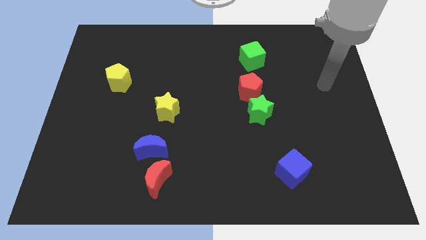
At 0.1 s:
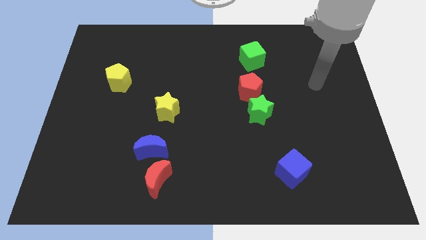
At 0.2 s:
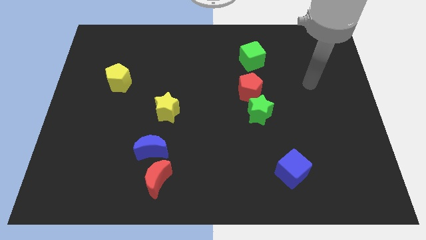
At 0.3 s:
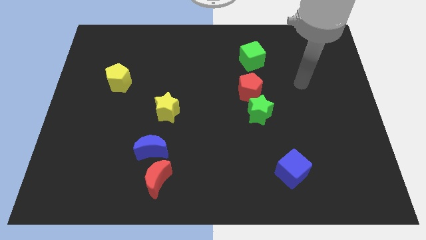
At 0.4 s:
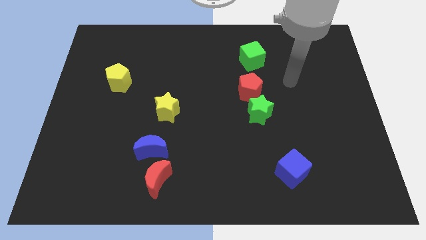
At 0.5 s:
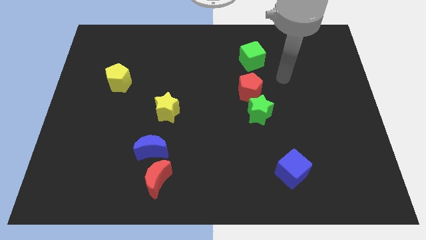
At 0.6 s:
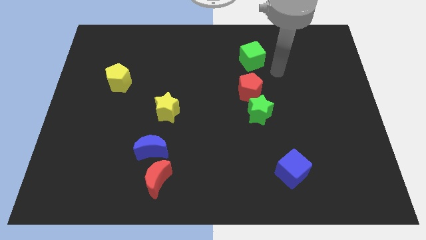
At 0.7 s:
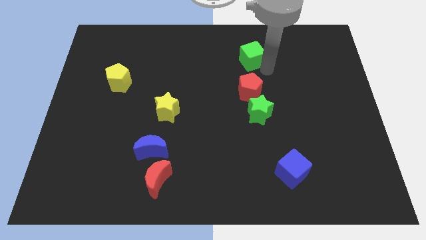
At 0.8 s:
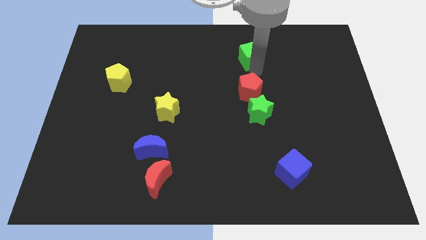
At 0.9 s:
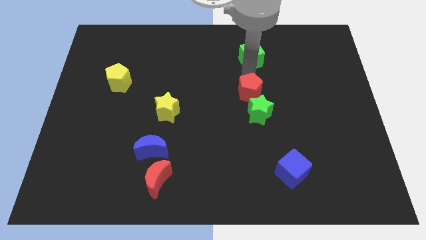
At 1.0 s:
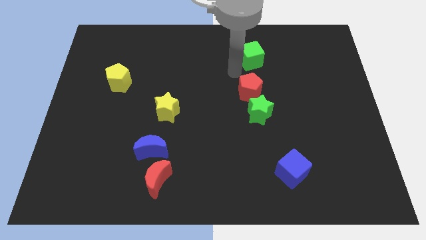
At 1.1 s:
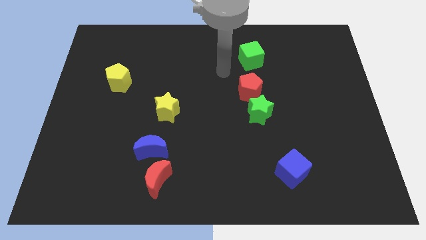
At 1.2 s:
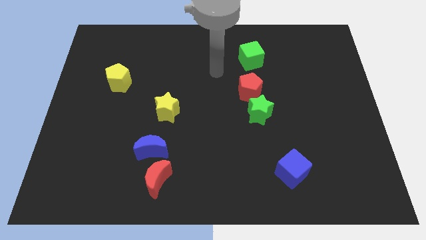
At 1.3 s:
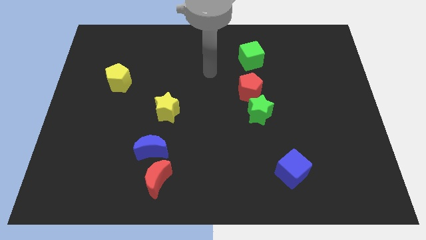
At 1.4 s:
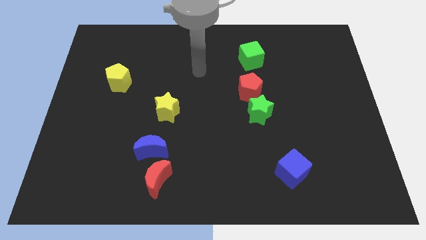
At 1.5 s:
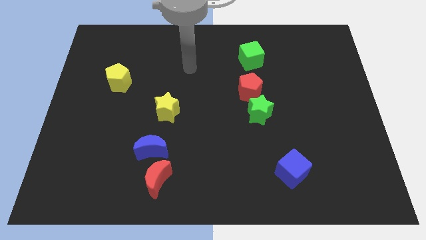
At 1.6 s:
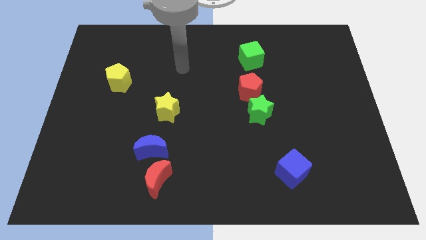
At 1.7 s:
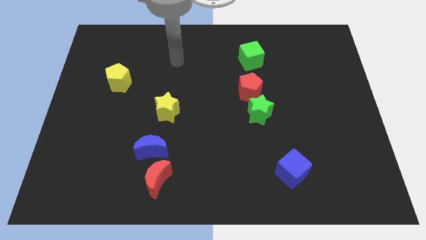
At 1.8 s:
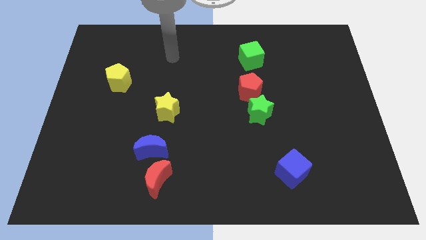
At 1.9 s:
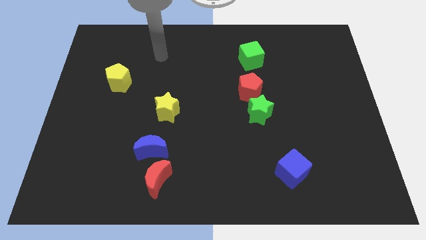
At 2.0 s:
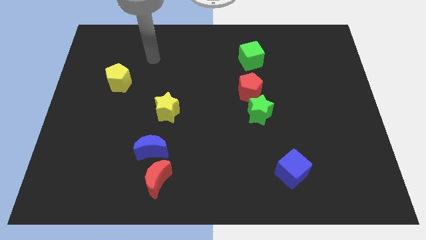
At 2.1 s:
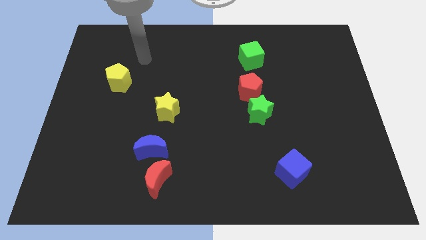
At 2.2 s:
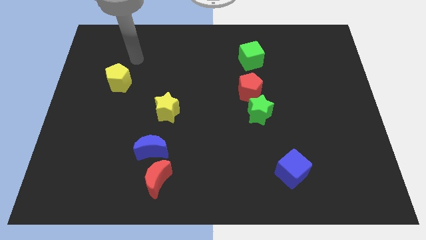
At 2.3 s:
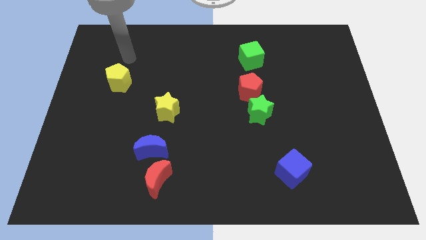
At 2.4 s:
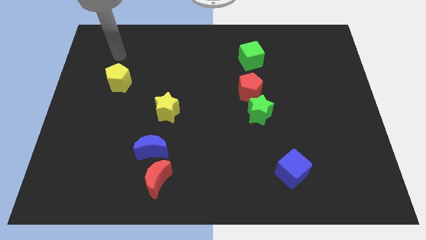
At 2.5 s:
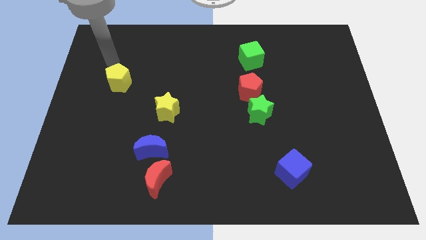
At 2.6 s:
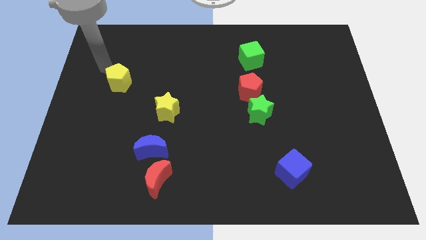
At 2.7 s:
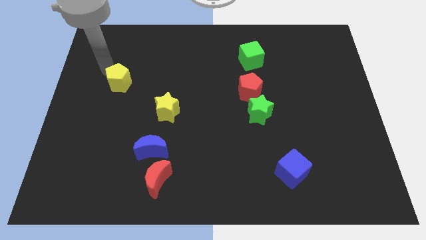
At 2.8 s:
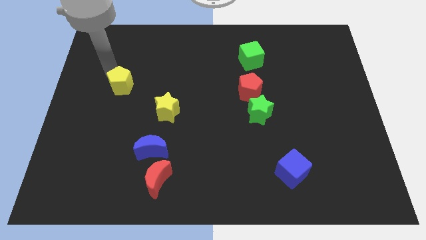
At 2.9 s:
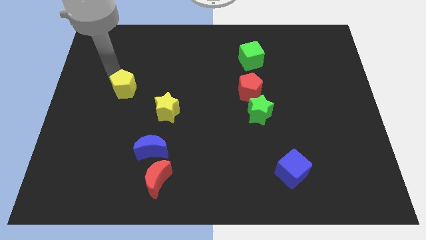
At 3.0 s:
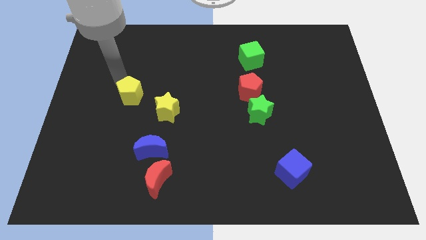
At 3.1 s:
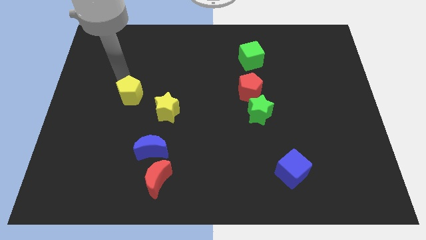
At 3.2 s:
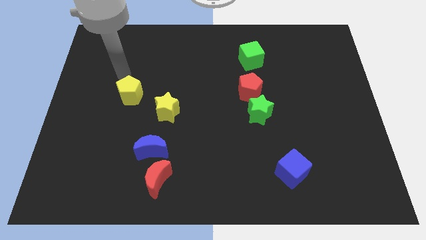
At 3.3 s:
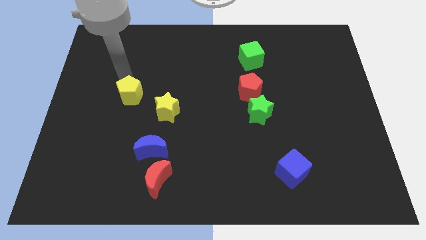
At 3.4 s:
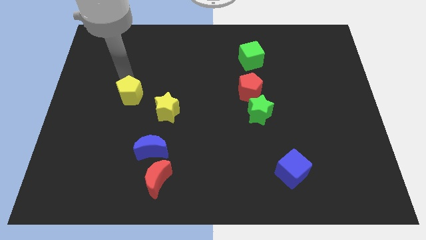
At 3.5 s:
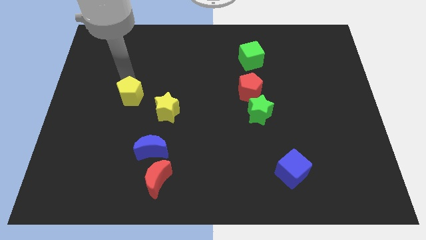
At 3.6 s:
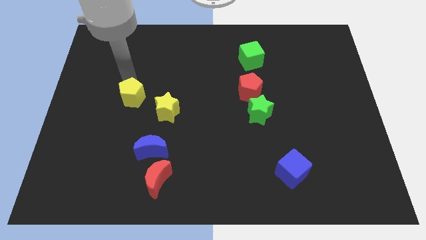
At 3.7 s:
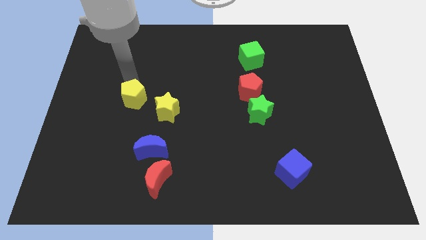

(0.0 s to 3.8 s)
slide the yellow pentagon diagonally down and to the right slightly

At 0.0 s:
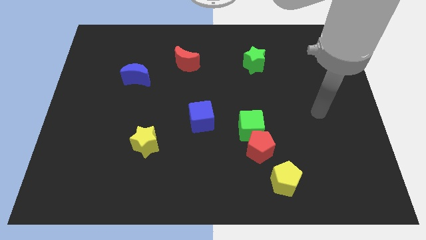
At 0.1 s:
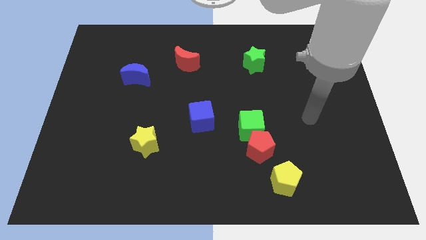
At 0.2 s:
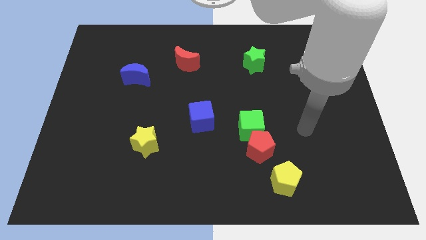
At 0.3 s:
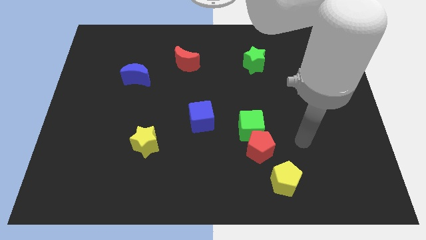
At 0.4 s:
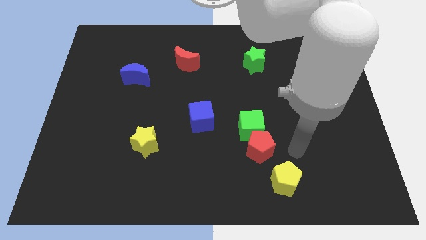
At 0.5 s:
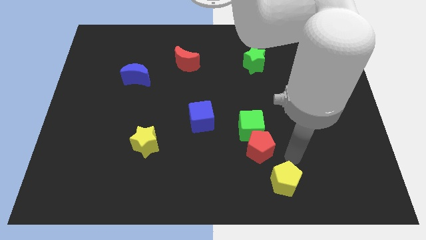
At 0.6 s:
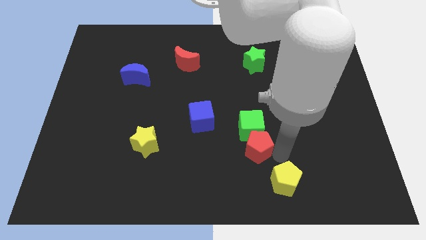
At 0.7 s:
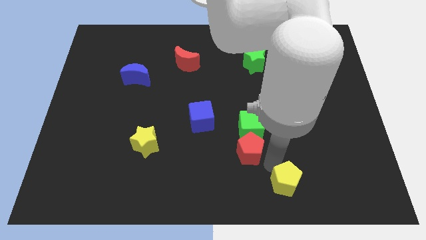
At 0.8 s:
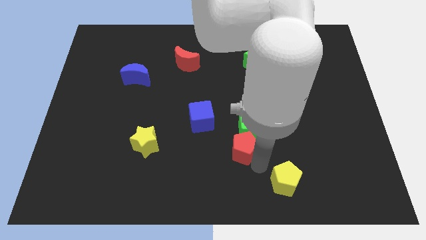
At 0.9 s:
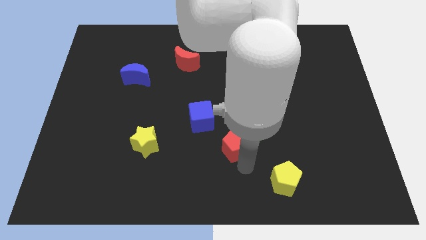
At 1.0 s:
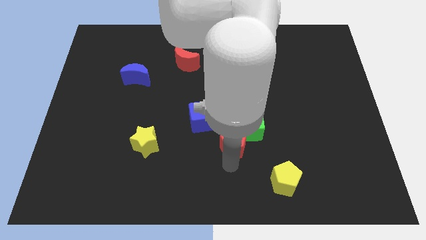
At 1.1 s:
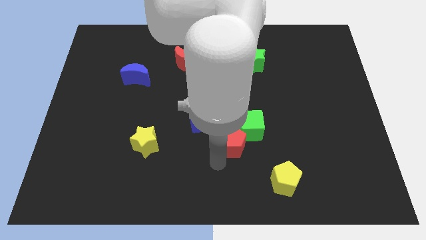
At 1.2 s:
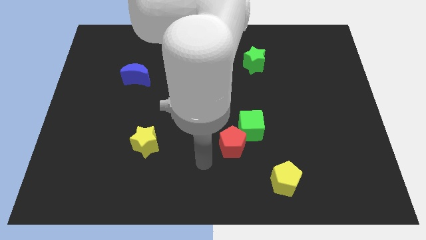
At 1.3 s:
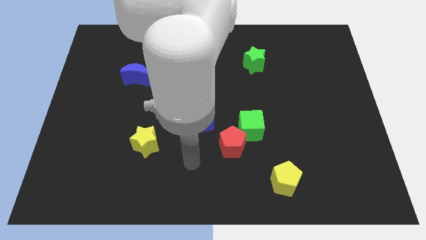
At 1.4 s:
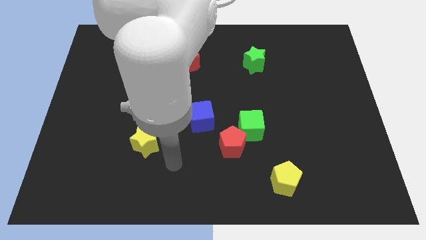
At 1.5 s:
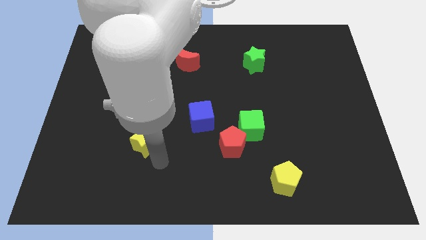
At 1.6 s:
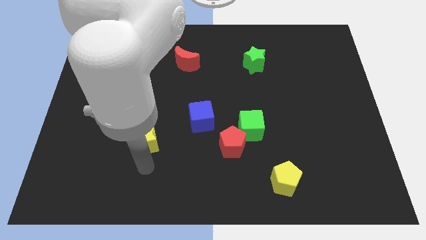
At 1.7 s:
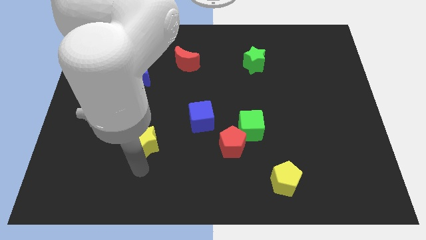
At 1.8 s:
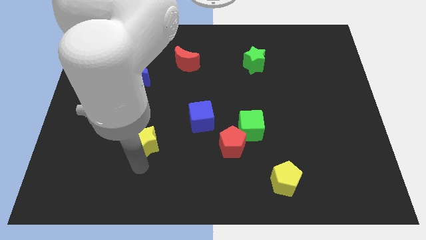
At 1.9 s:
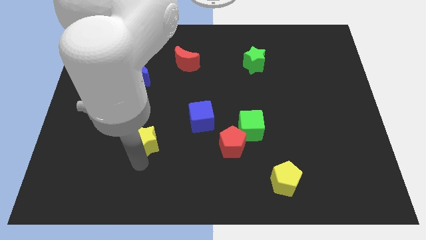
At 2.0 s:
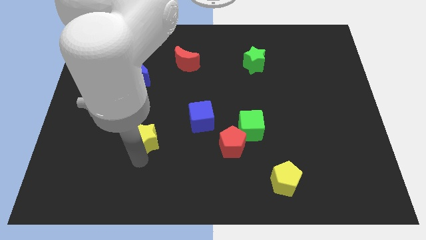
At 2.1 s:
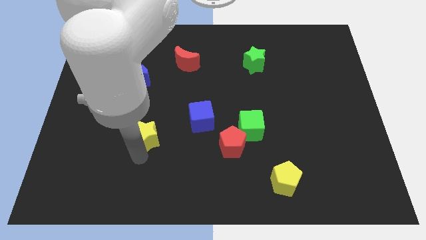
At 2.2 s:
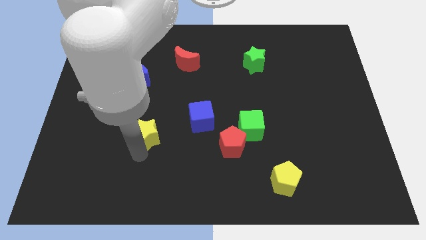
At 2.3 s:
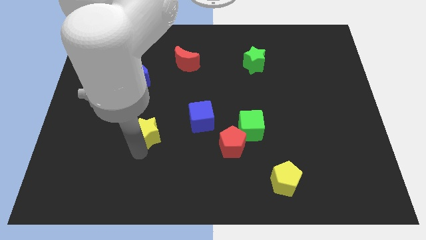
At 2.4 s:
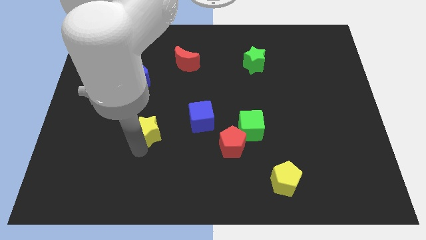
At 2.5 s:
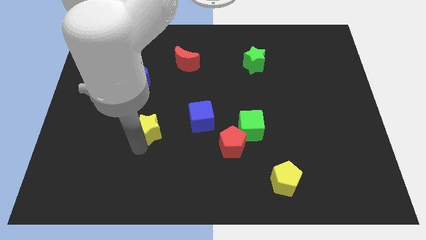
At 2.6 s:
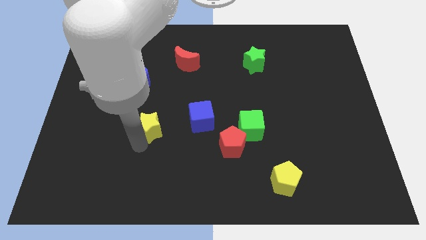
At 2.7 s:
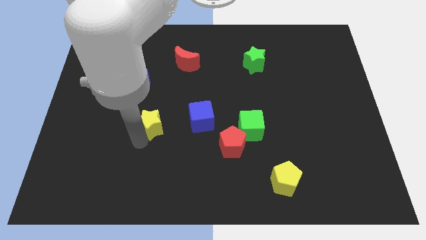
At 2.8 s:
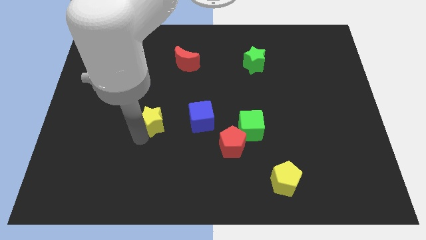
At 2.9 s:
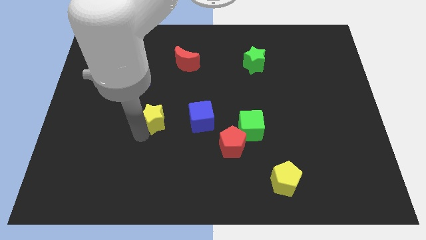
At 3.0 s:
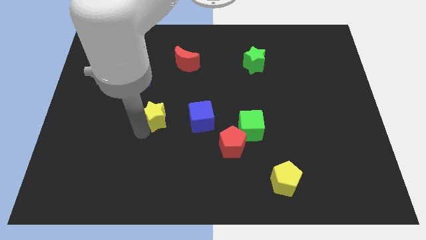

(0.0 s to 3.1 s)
slightly slide the yellow star upwards

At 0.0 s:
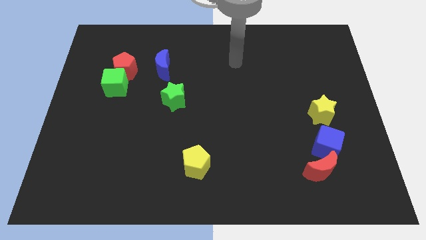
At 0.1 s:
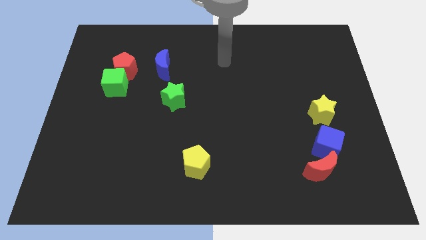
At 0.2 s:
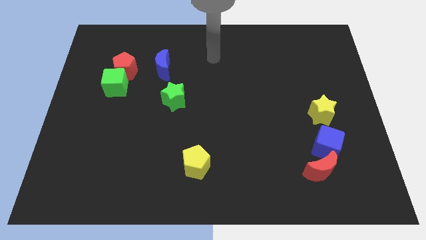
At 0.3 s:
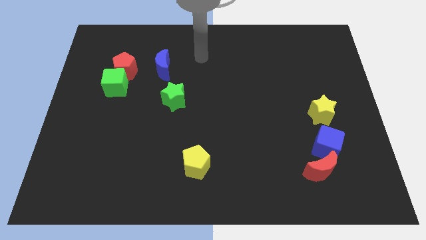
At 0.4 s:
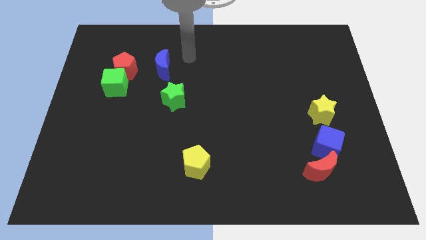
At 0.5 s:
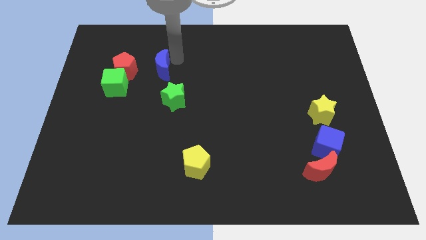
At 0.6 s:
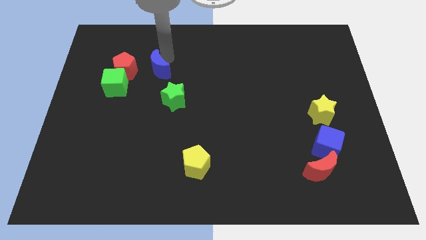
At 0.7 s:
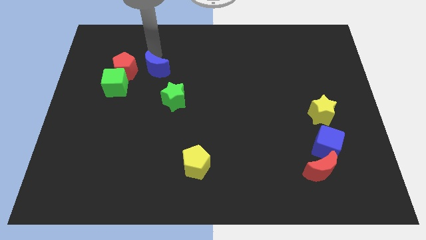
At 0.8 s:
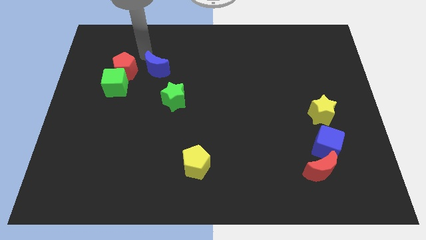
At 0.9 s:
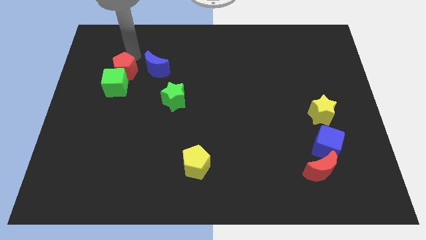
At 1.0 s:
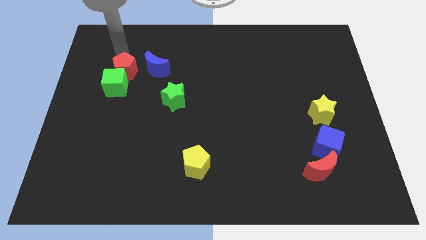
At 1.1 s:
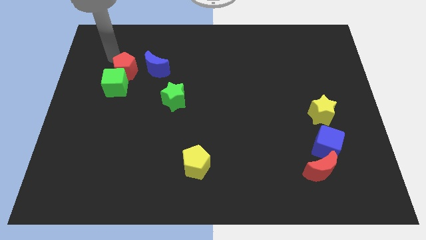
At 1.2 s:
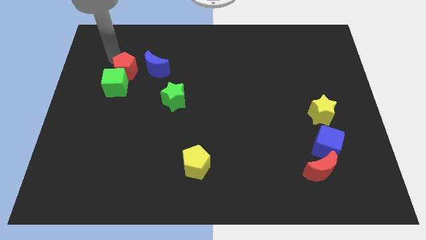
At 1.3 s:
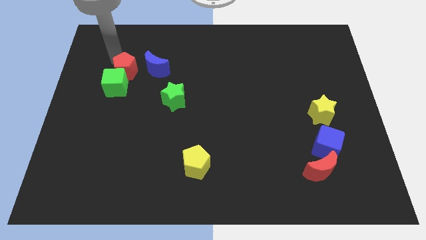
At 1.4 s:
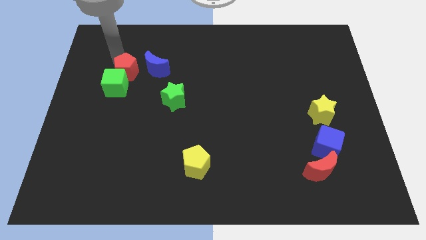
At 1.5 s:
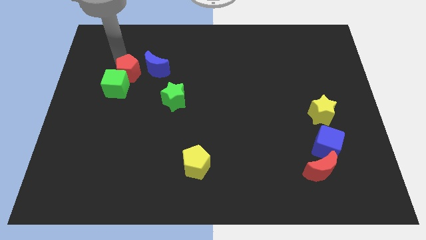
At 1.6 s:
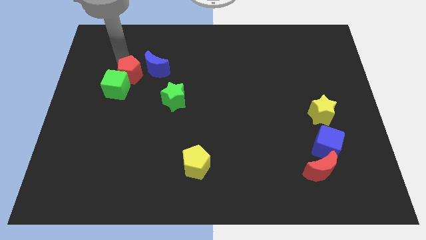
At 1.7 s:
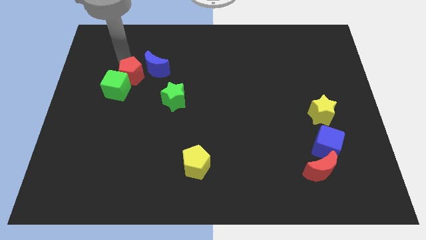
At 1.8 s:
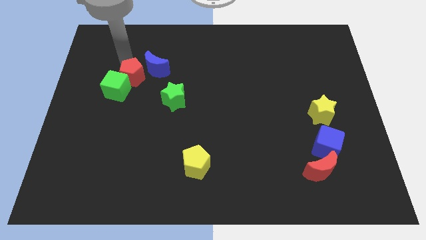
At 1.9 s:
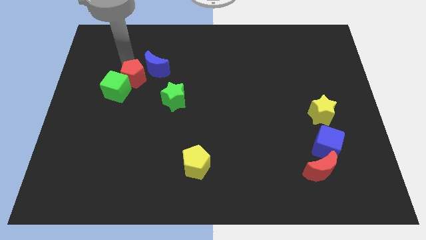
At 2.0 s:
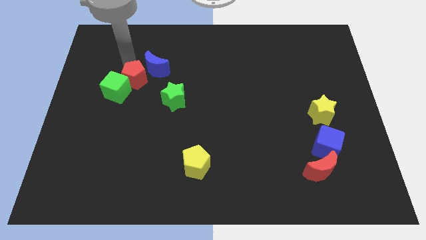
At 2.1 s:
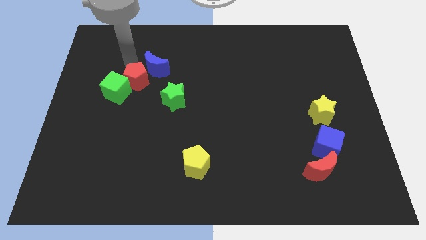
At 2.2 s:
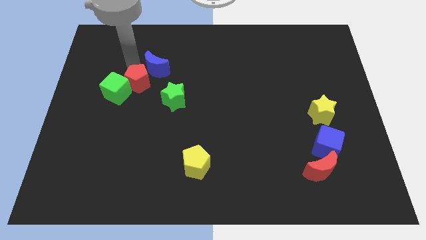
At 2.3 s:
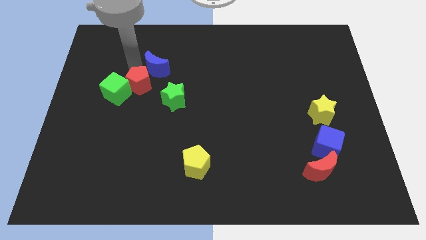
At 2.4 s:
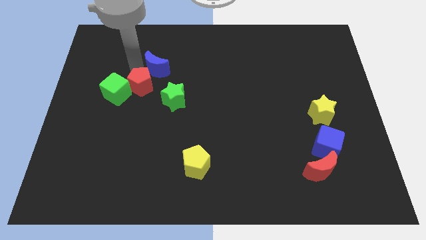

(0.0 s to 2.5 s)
slightly slide the red pentagon downwards and right diagonally
